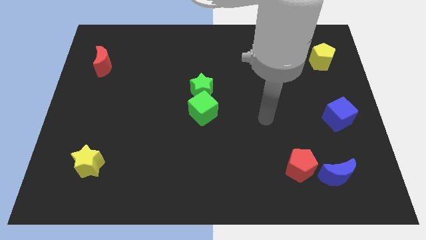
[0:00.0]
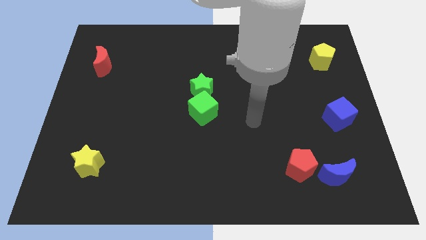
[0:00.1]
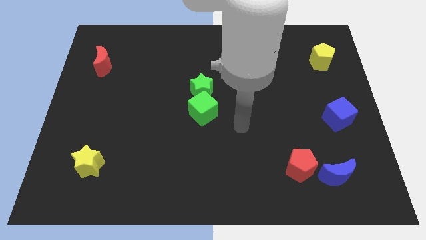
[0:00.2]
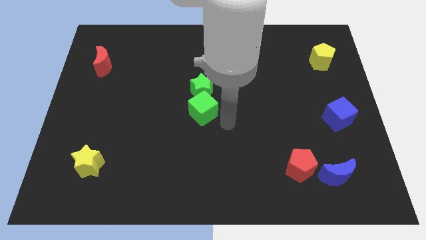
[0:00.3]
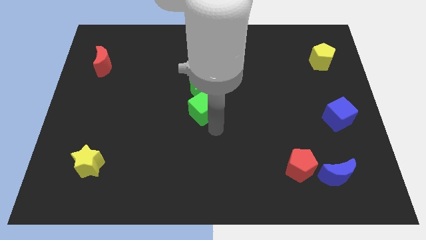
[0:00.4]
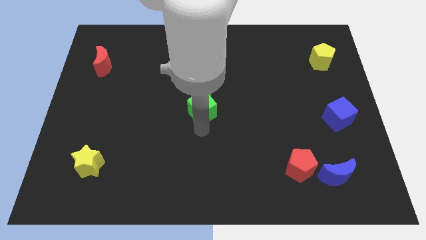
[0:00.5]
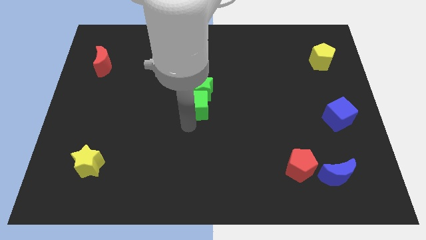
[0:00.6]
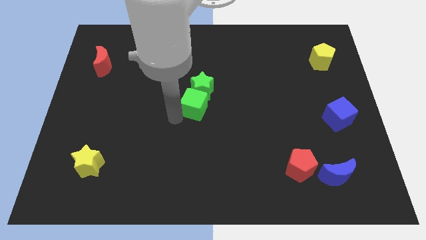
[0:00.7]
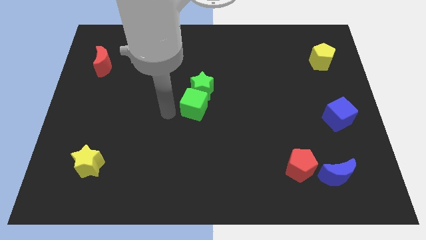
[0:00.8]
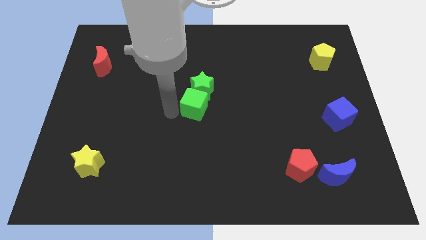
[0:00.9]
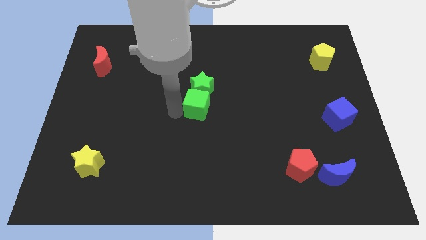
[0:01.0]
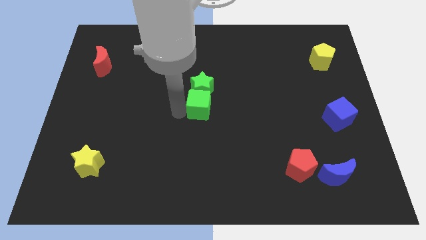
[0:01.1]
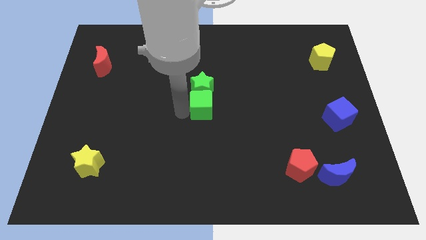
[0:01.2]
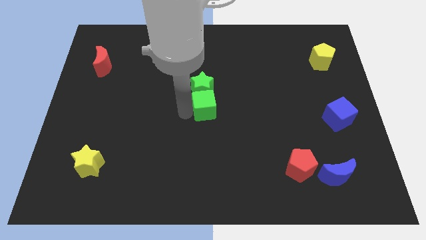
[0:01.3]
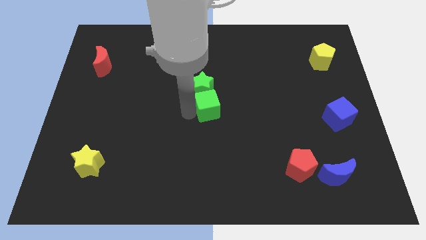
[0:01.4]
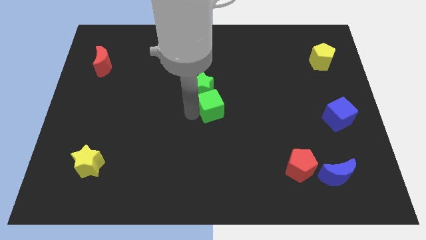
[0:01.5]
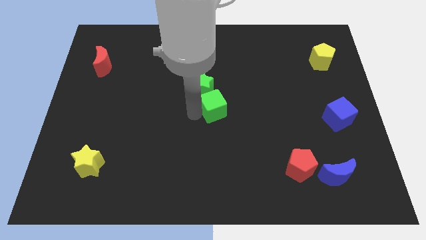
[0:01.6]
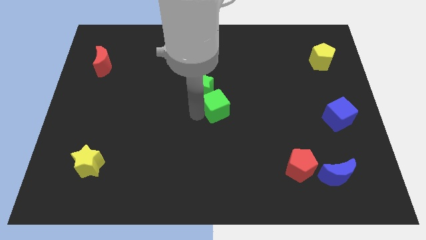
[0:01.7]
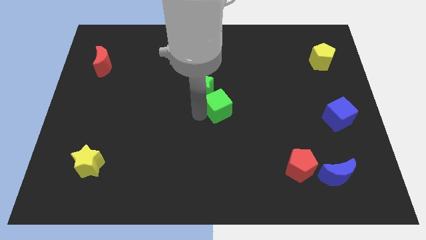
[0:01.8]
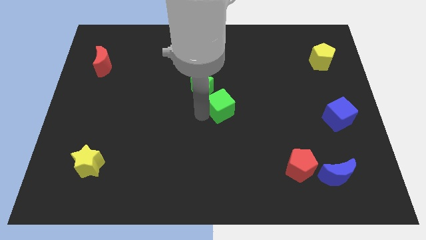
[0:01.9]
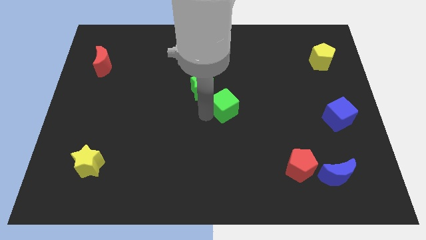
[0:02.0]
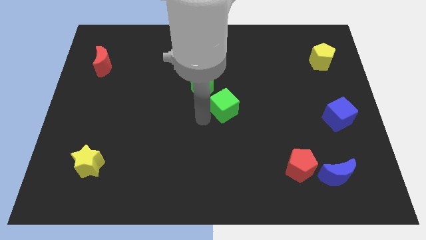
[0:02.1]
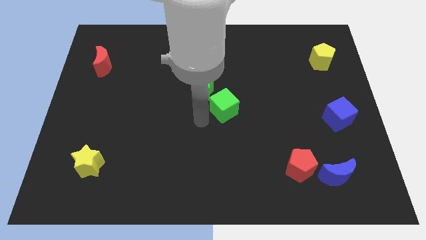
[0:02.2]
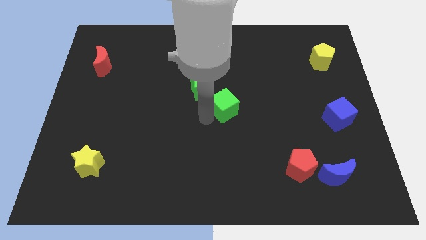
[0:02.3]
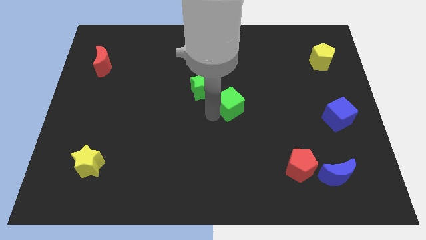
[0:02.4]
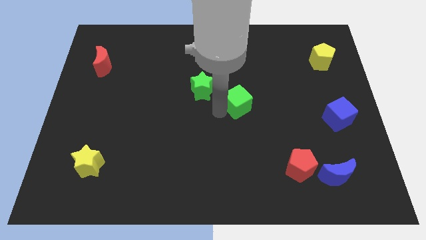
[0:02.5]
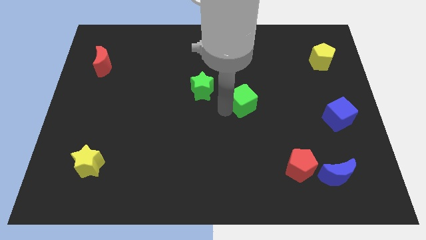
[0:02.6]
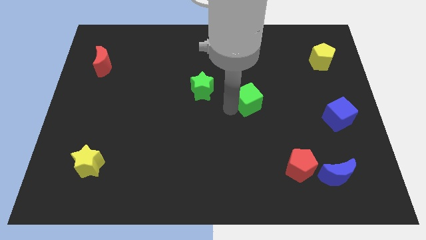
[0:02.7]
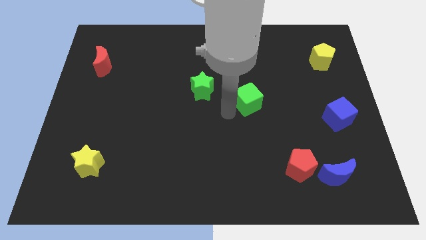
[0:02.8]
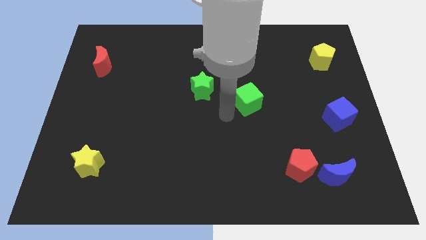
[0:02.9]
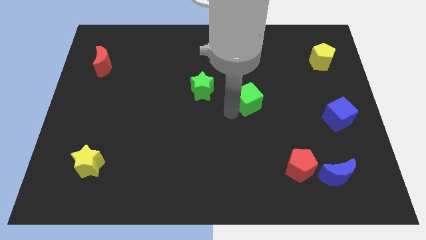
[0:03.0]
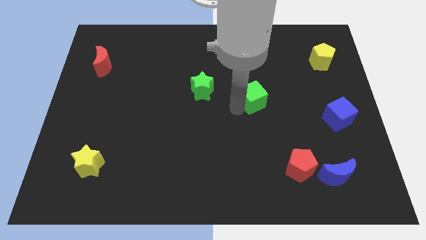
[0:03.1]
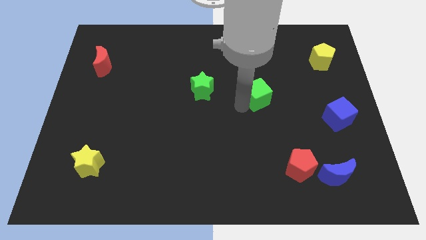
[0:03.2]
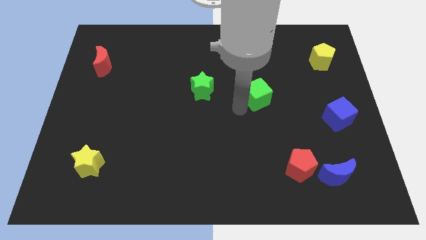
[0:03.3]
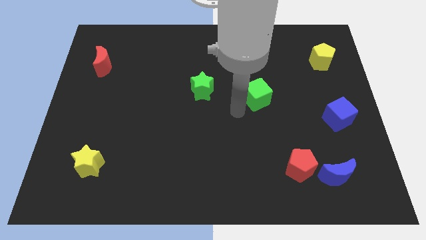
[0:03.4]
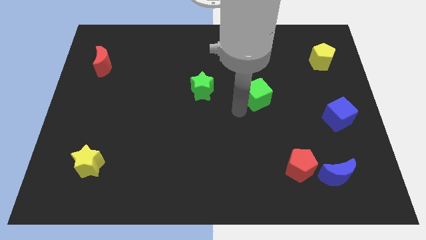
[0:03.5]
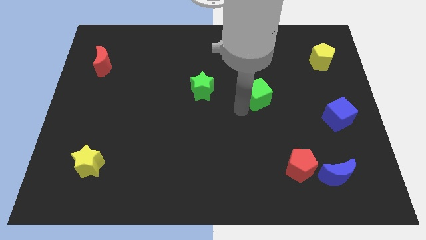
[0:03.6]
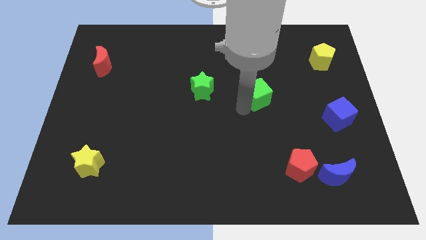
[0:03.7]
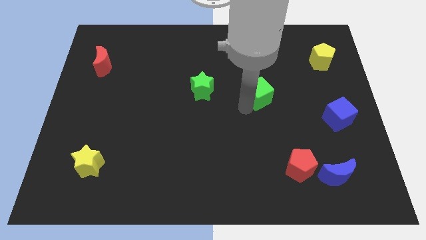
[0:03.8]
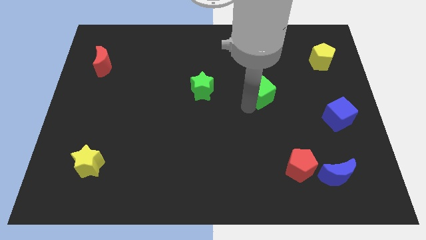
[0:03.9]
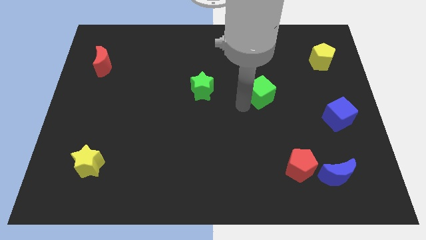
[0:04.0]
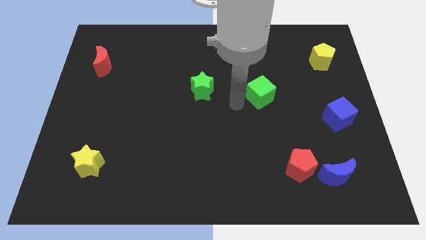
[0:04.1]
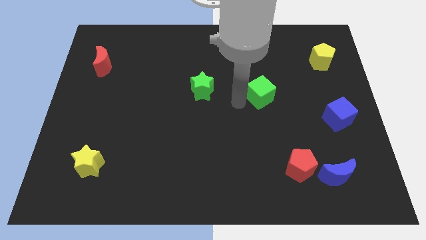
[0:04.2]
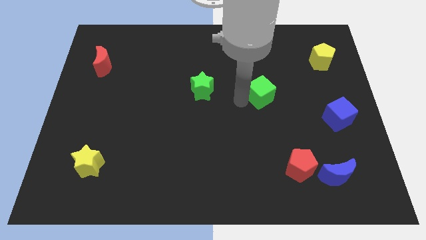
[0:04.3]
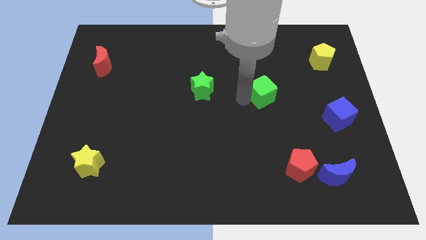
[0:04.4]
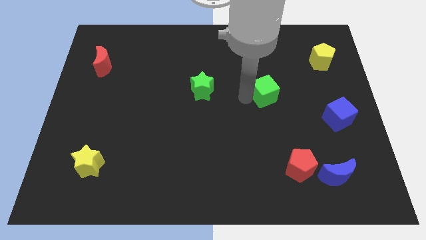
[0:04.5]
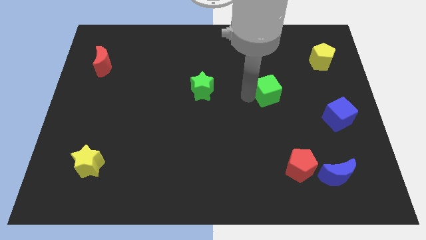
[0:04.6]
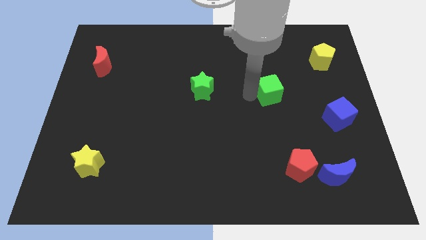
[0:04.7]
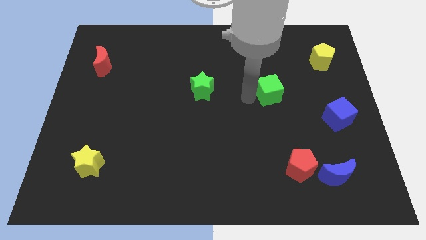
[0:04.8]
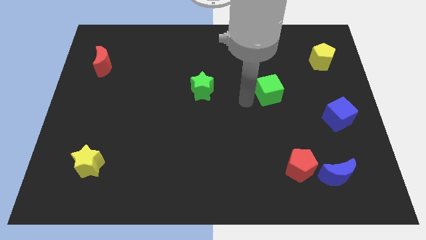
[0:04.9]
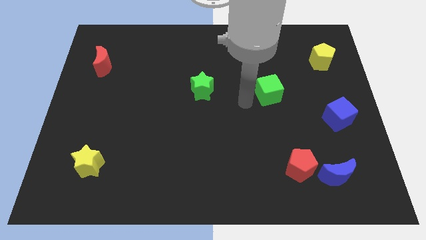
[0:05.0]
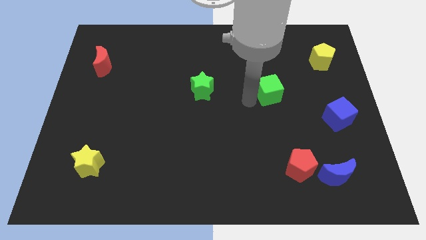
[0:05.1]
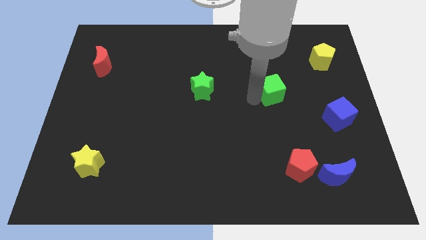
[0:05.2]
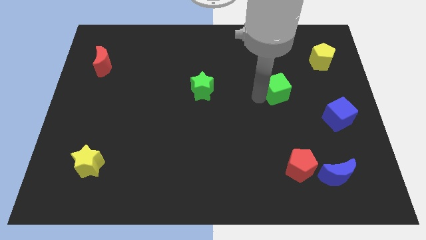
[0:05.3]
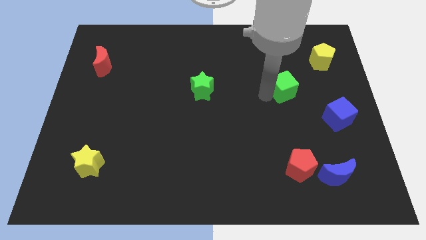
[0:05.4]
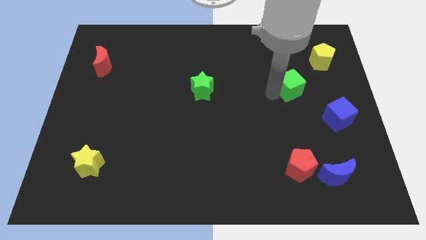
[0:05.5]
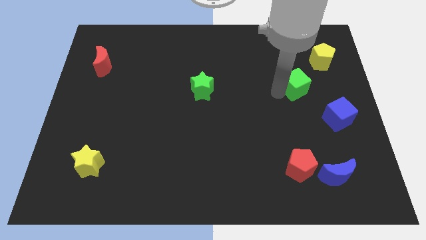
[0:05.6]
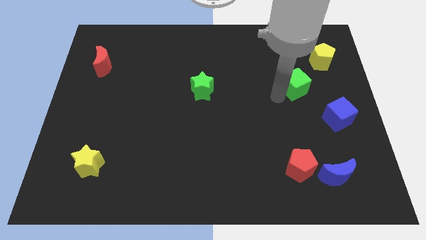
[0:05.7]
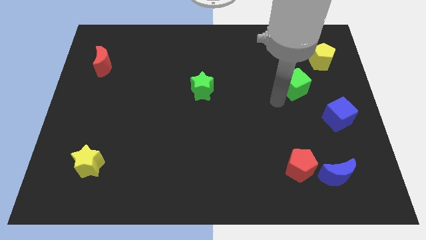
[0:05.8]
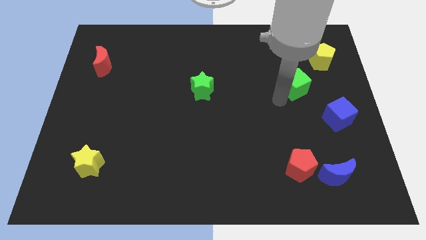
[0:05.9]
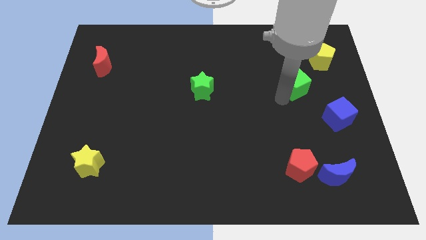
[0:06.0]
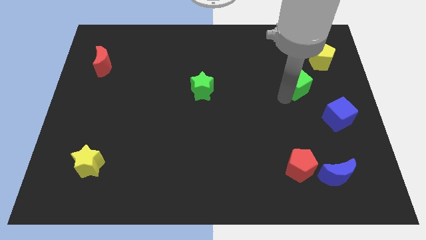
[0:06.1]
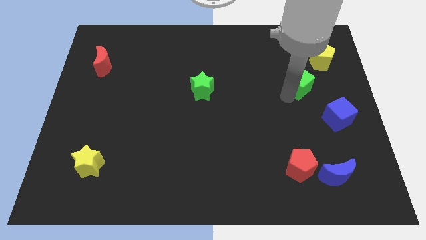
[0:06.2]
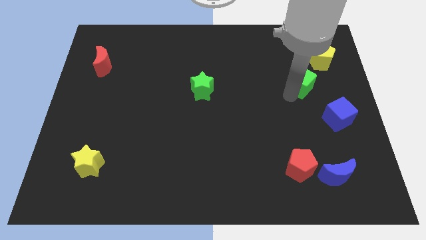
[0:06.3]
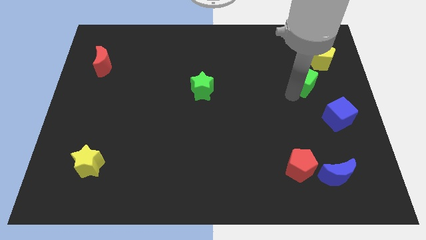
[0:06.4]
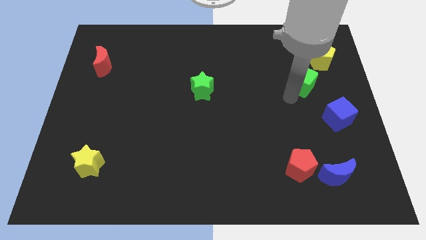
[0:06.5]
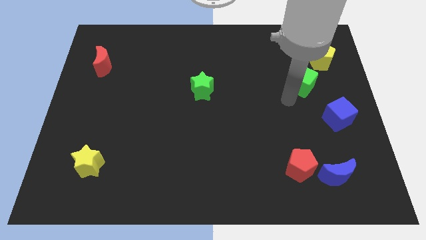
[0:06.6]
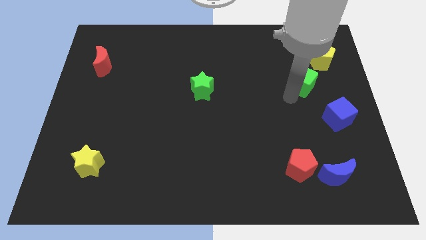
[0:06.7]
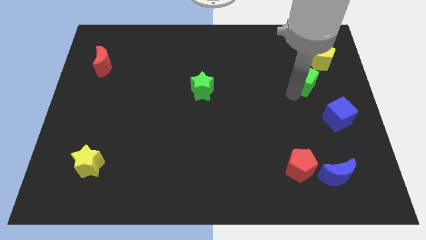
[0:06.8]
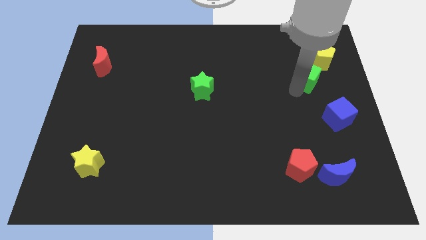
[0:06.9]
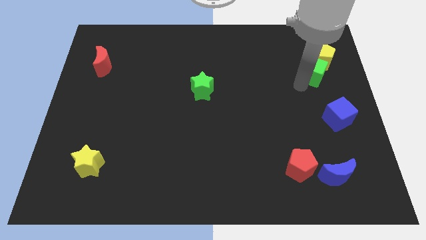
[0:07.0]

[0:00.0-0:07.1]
move the green cube next to the yellow pentagon
